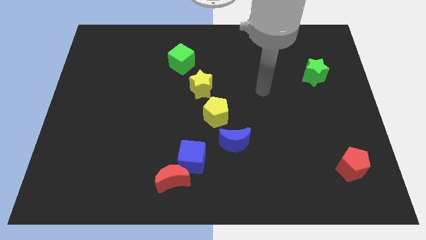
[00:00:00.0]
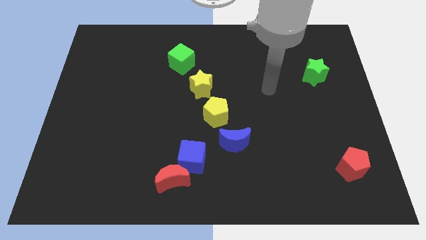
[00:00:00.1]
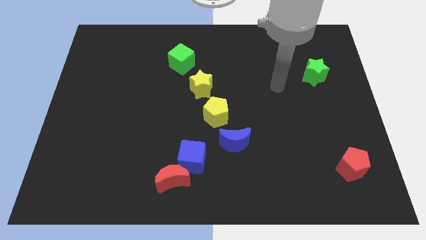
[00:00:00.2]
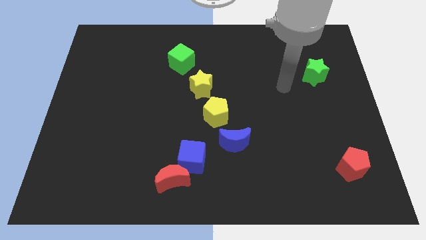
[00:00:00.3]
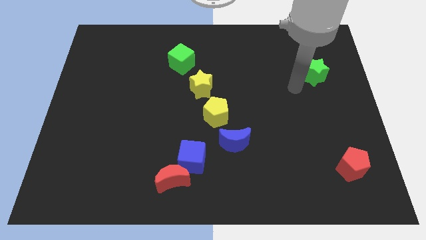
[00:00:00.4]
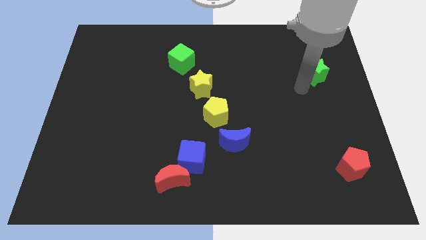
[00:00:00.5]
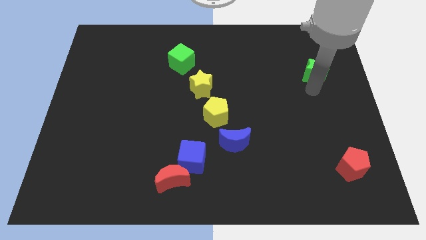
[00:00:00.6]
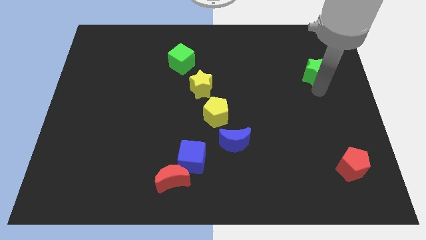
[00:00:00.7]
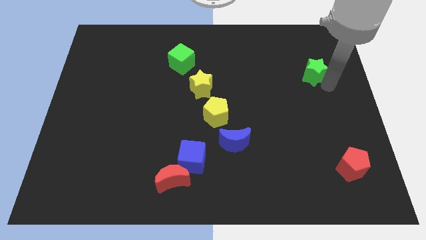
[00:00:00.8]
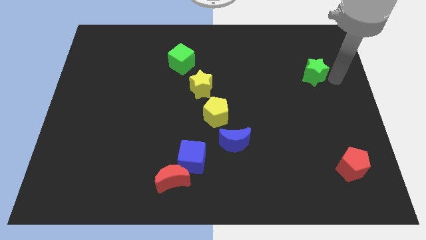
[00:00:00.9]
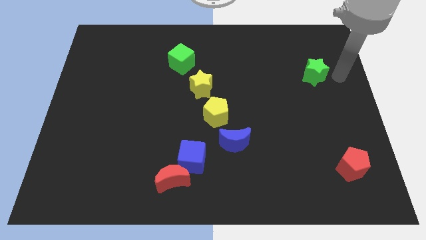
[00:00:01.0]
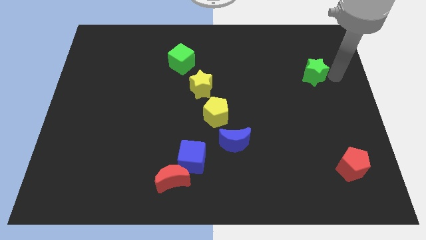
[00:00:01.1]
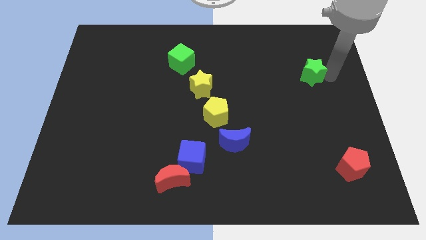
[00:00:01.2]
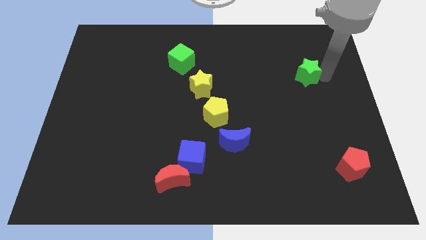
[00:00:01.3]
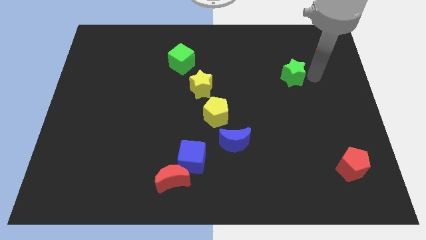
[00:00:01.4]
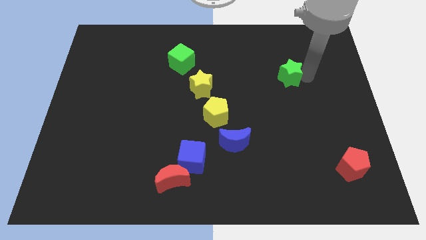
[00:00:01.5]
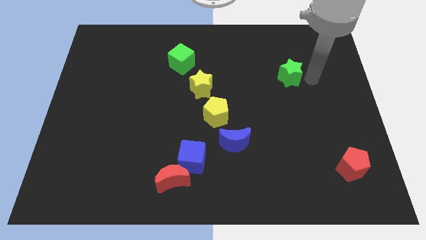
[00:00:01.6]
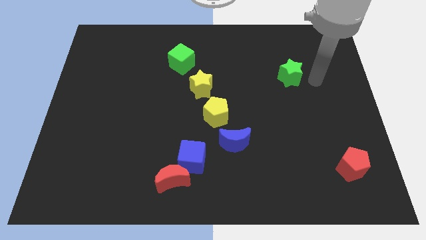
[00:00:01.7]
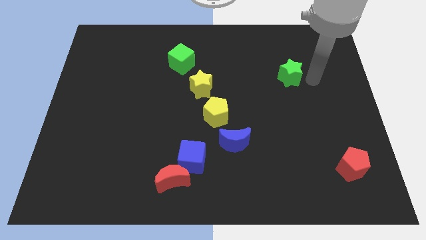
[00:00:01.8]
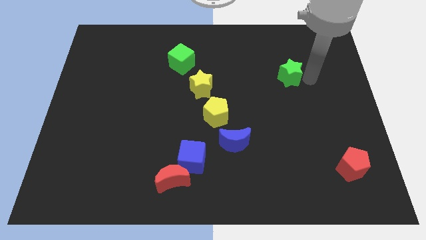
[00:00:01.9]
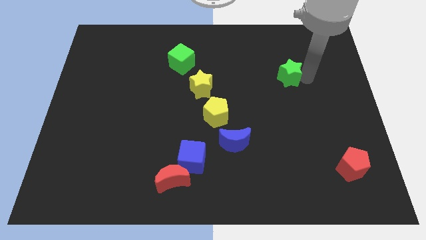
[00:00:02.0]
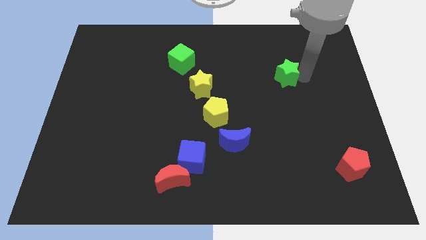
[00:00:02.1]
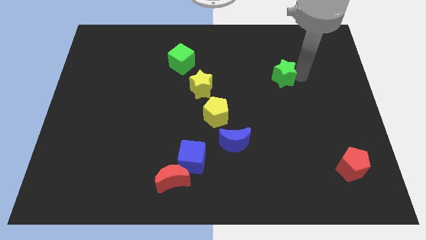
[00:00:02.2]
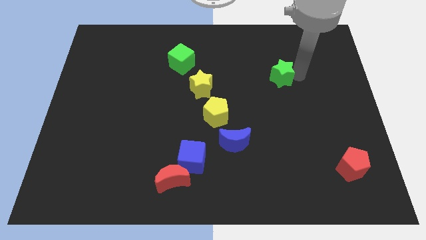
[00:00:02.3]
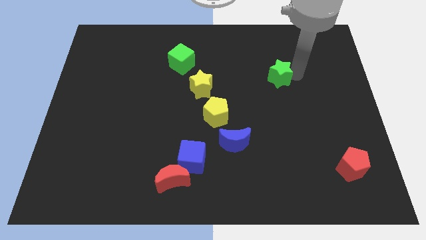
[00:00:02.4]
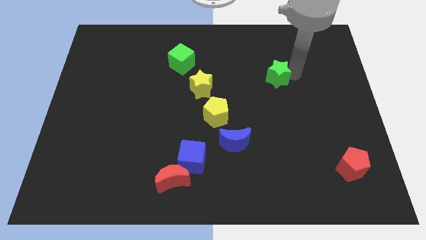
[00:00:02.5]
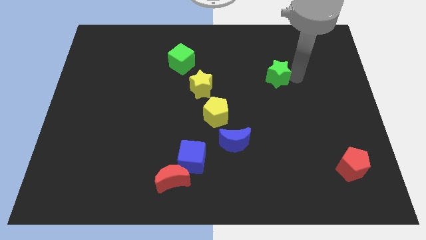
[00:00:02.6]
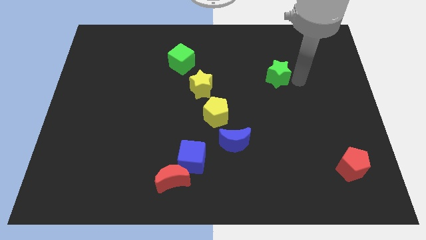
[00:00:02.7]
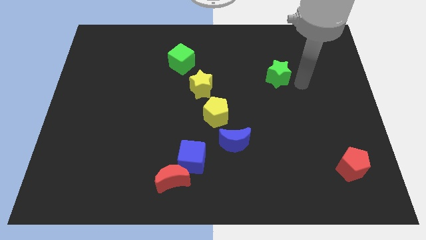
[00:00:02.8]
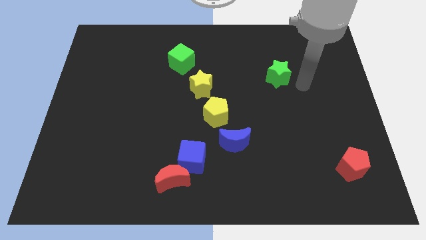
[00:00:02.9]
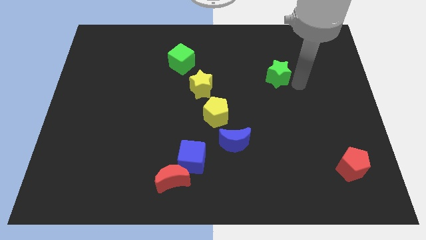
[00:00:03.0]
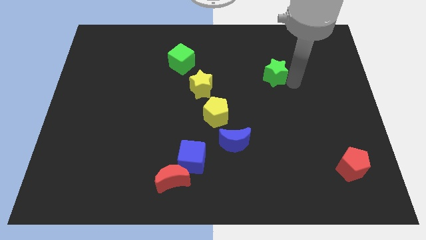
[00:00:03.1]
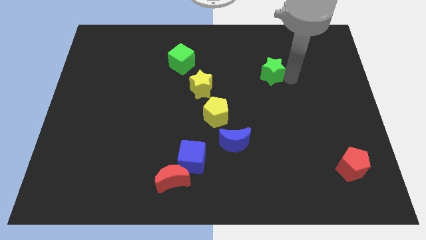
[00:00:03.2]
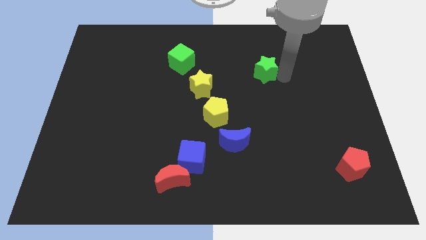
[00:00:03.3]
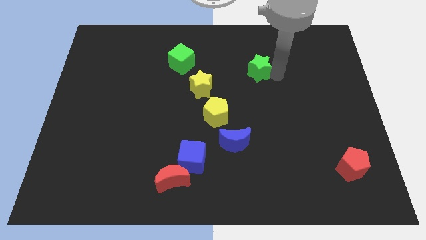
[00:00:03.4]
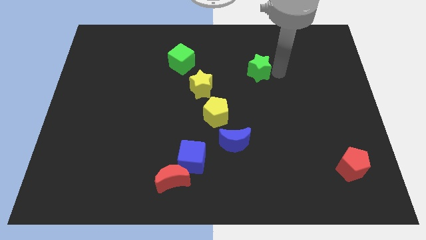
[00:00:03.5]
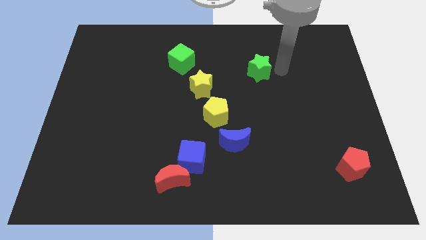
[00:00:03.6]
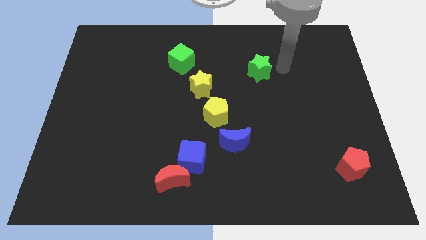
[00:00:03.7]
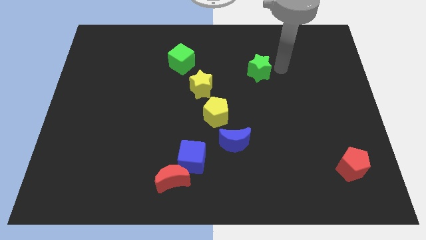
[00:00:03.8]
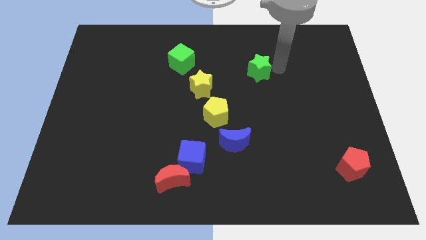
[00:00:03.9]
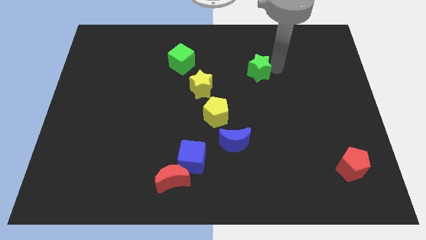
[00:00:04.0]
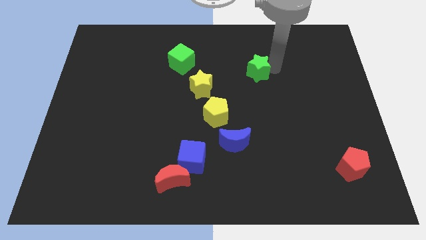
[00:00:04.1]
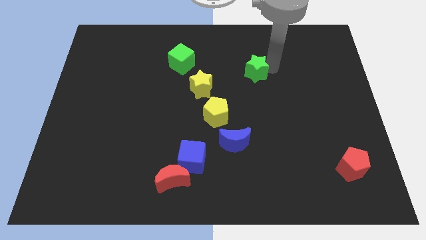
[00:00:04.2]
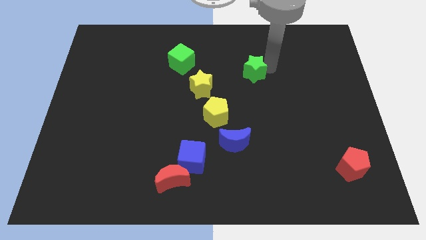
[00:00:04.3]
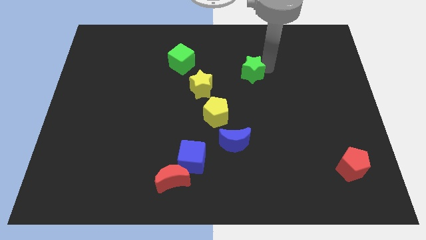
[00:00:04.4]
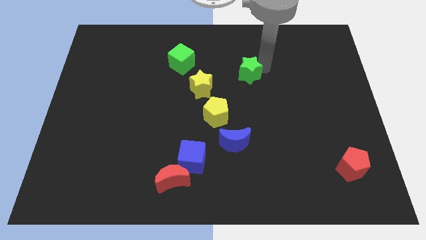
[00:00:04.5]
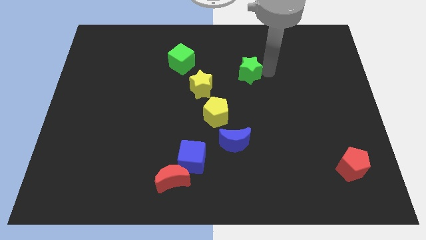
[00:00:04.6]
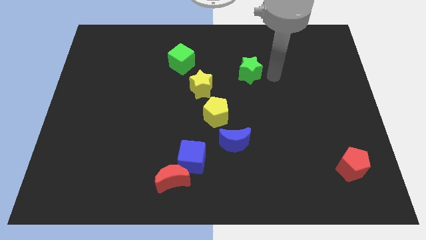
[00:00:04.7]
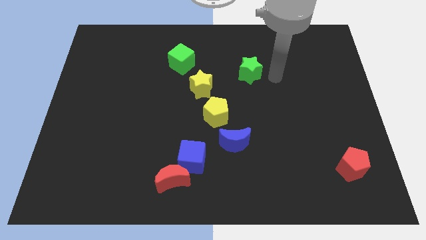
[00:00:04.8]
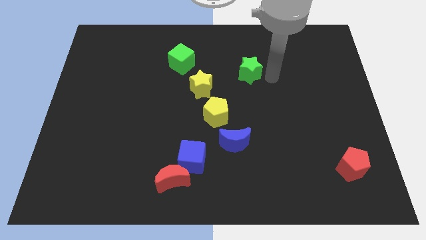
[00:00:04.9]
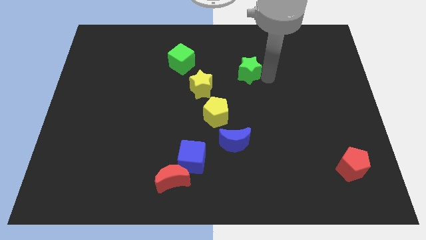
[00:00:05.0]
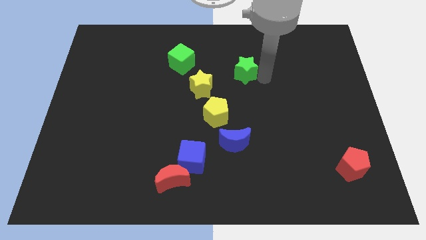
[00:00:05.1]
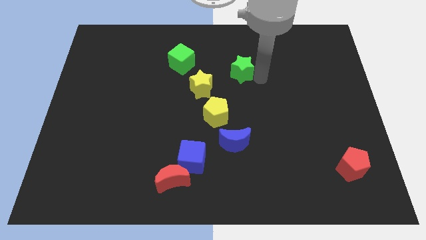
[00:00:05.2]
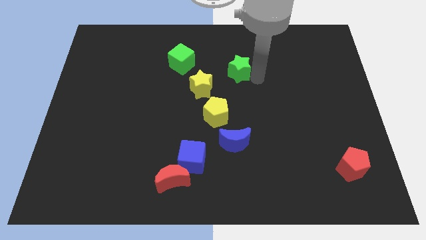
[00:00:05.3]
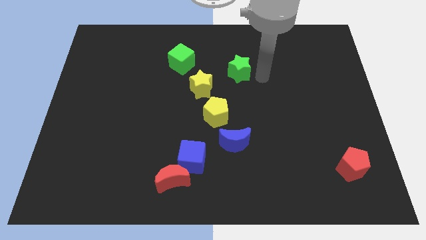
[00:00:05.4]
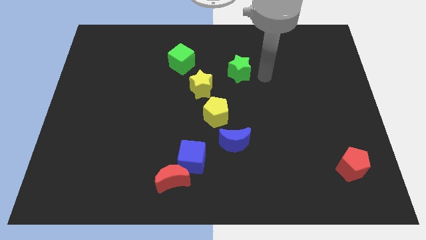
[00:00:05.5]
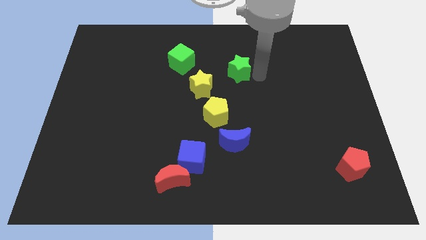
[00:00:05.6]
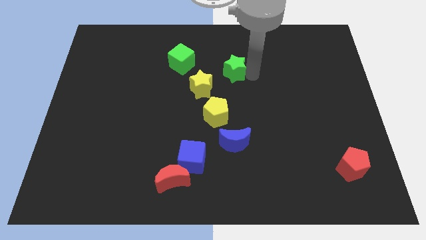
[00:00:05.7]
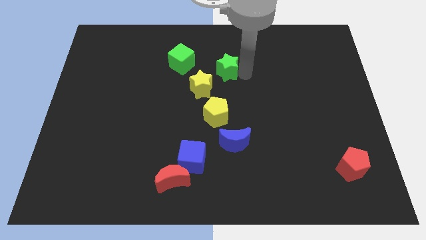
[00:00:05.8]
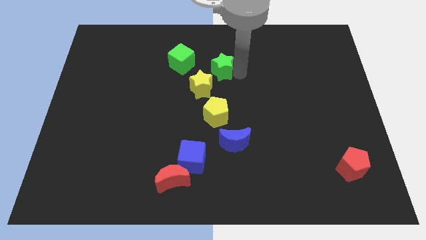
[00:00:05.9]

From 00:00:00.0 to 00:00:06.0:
push the green star above the yellow star
